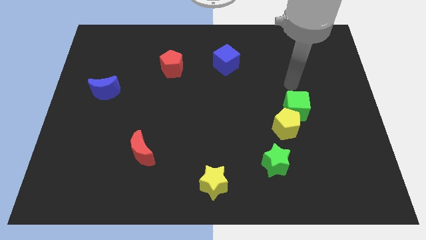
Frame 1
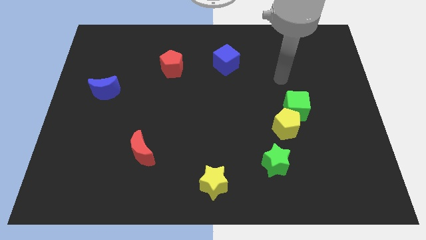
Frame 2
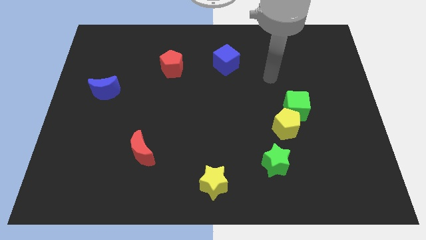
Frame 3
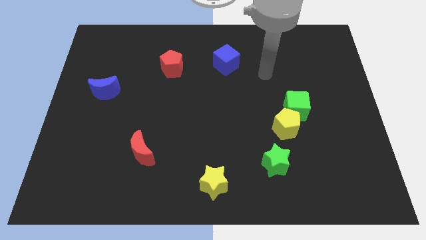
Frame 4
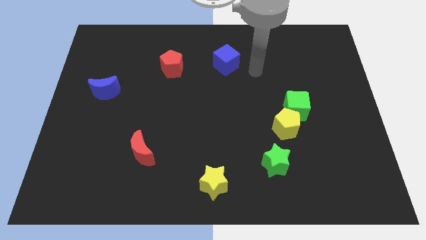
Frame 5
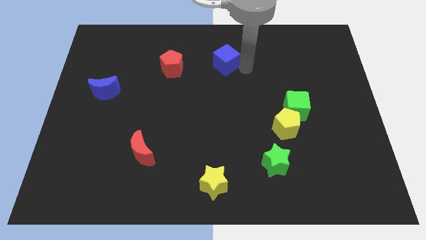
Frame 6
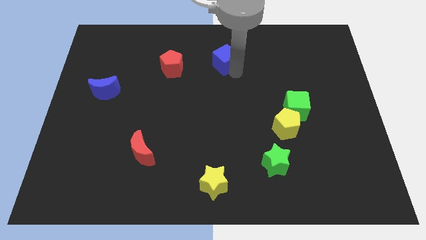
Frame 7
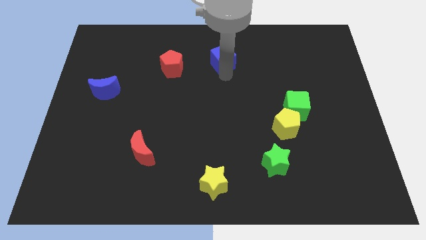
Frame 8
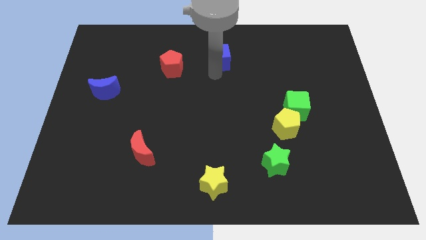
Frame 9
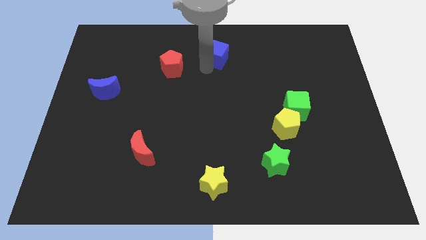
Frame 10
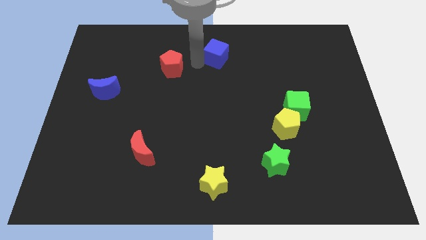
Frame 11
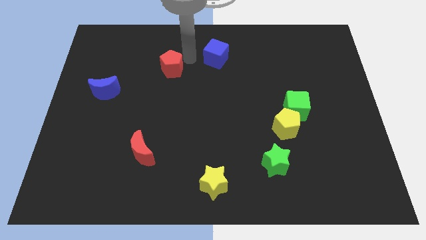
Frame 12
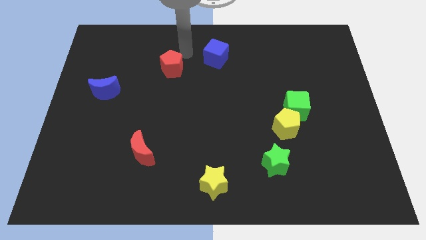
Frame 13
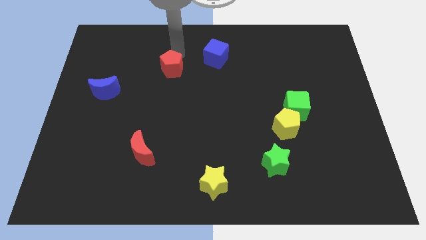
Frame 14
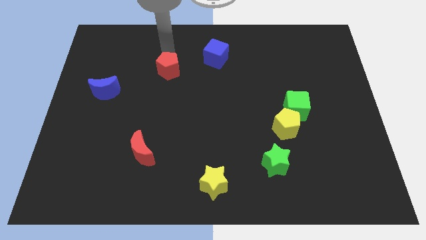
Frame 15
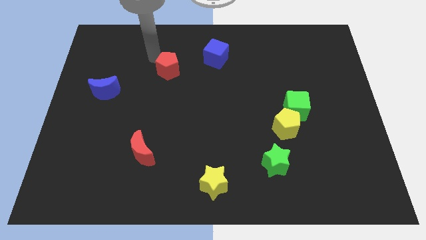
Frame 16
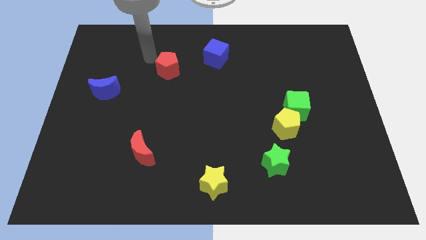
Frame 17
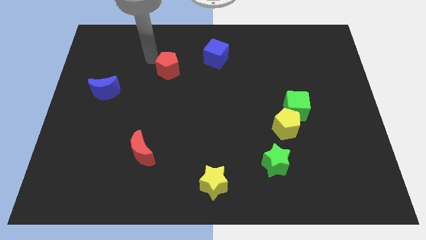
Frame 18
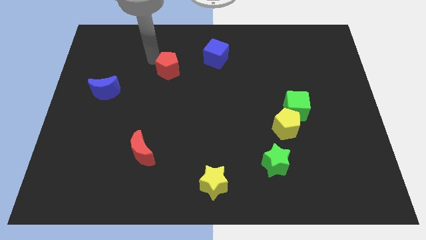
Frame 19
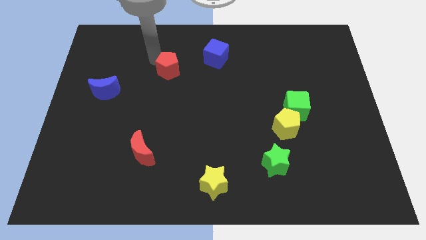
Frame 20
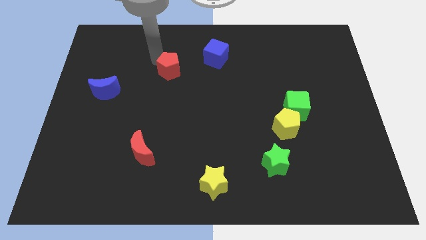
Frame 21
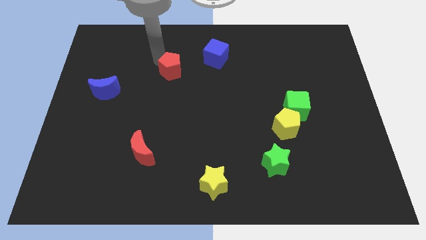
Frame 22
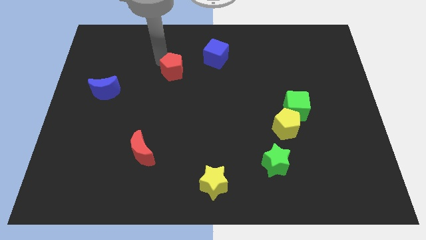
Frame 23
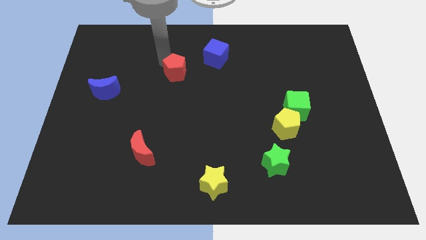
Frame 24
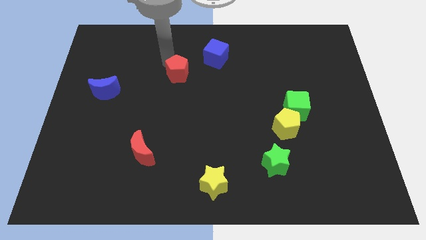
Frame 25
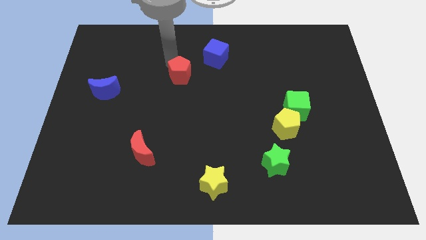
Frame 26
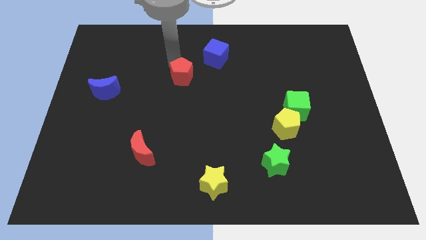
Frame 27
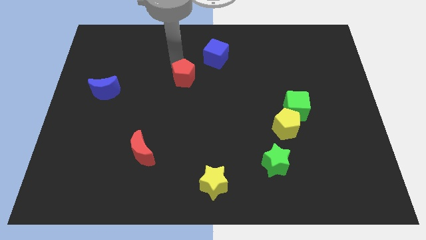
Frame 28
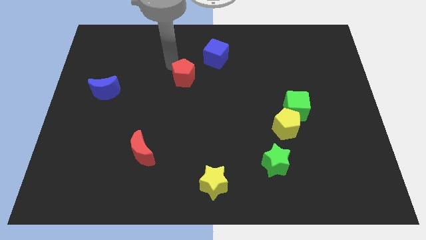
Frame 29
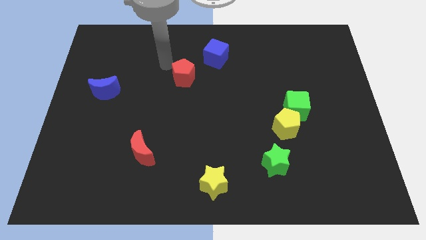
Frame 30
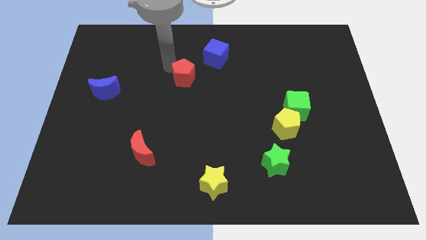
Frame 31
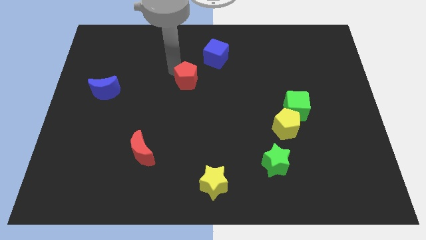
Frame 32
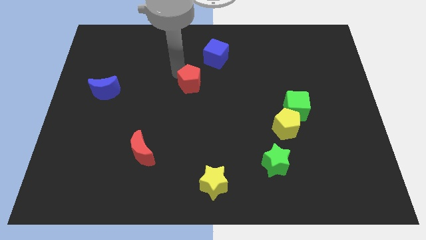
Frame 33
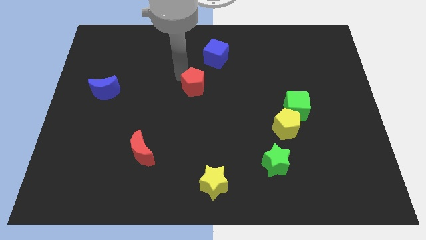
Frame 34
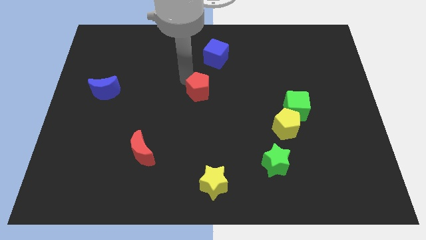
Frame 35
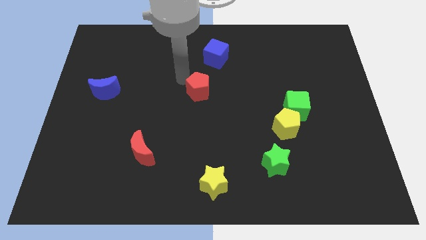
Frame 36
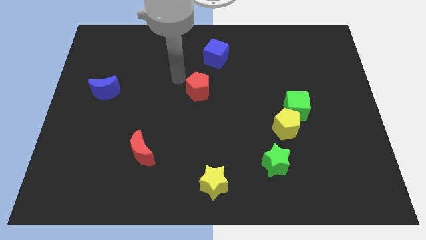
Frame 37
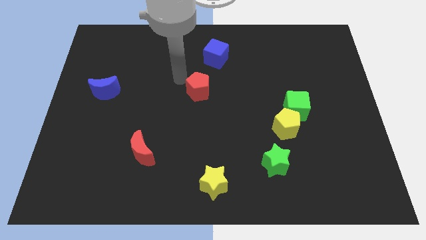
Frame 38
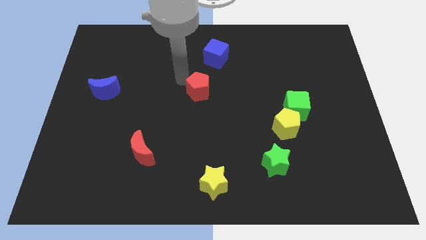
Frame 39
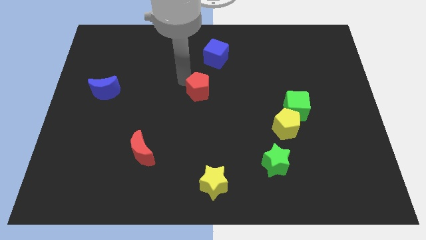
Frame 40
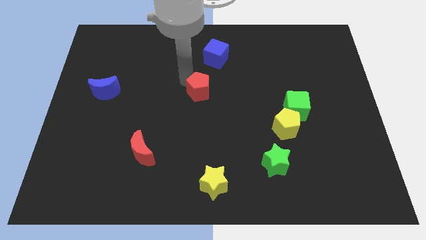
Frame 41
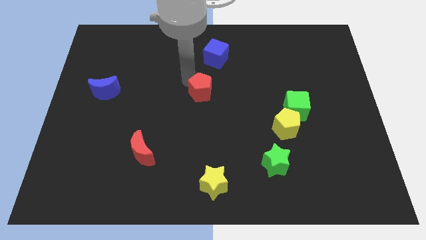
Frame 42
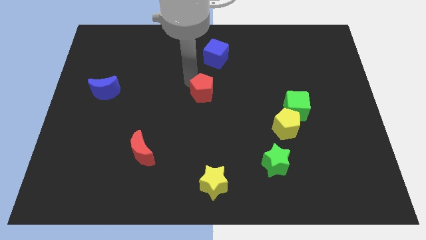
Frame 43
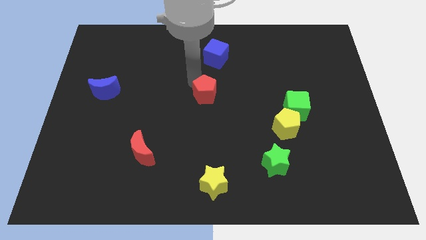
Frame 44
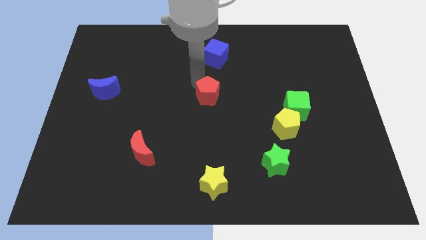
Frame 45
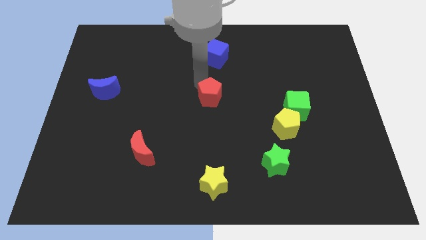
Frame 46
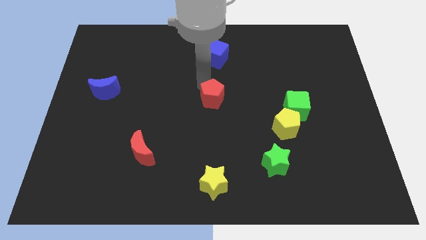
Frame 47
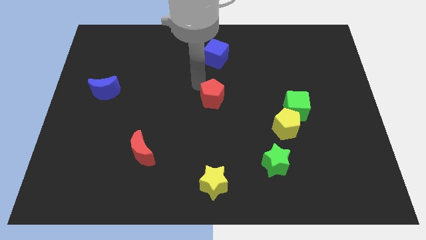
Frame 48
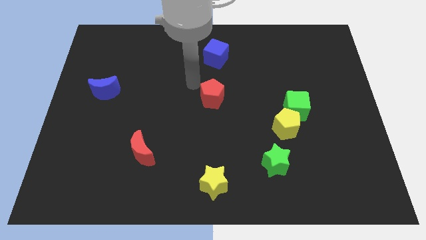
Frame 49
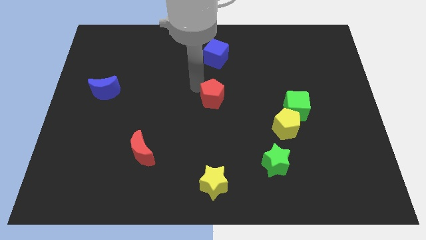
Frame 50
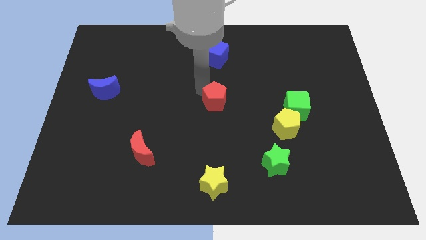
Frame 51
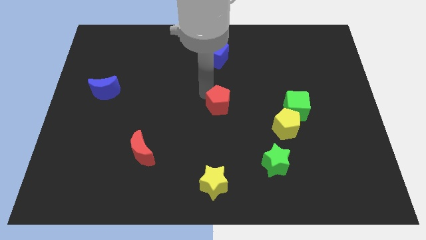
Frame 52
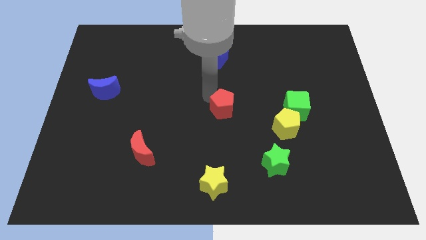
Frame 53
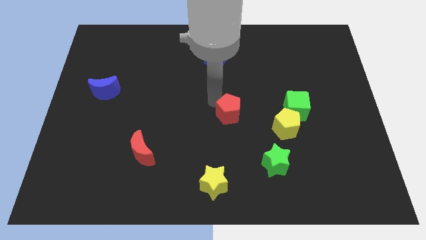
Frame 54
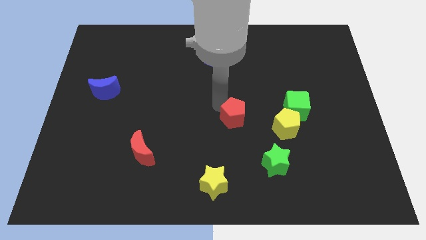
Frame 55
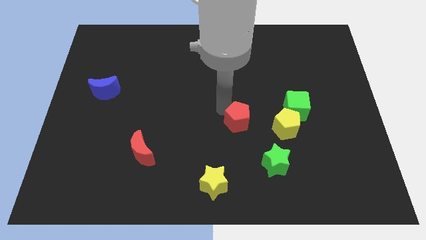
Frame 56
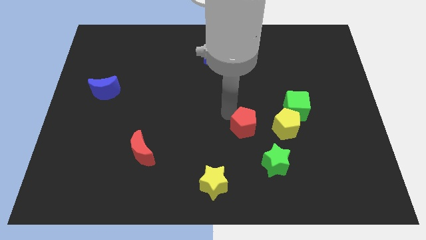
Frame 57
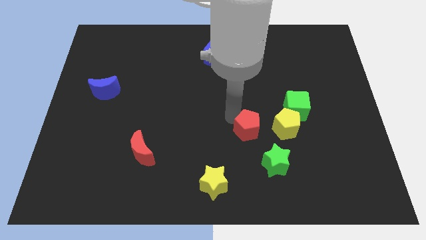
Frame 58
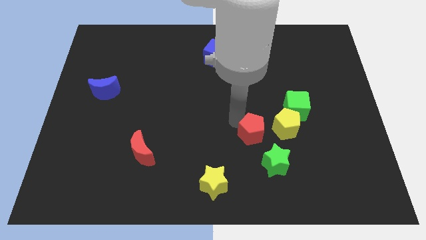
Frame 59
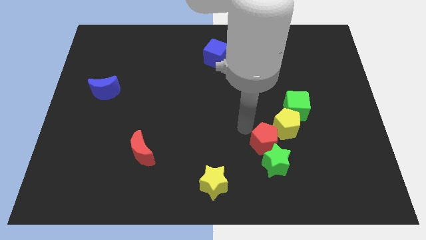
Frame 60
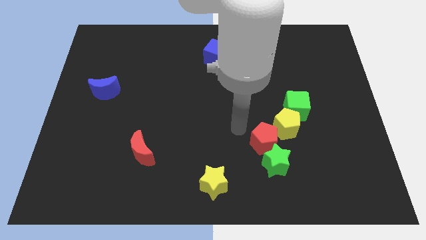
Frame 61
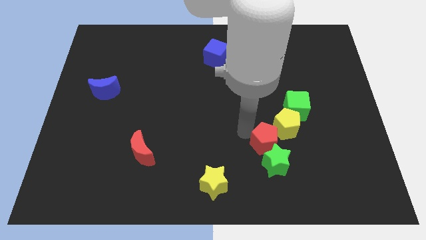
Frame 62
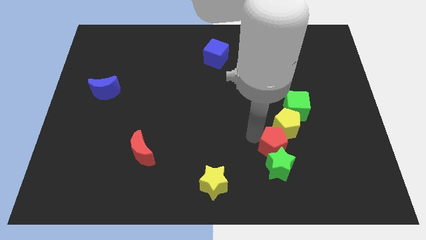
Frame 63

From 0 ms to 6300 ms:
slide the red pentagon to the top right side of the green star

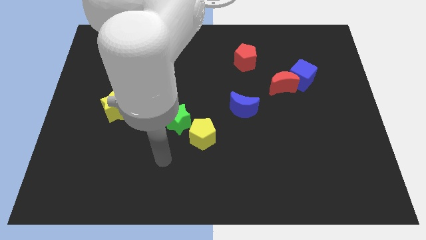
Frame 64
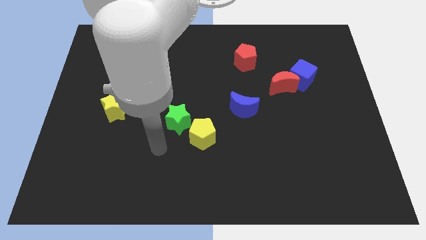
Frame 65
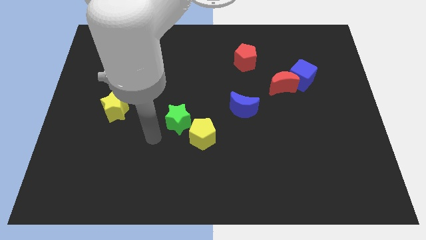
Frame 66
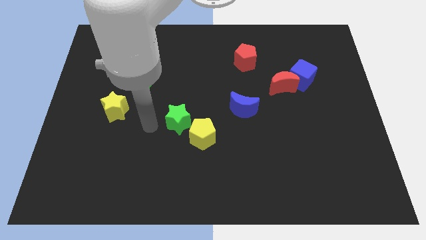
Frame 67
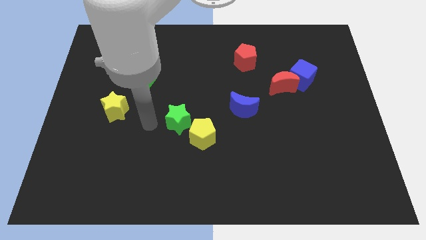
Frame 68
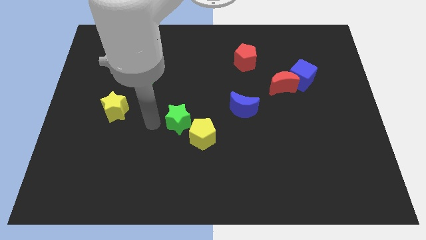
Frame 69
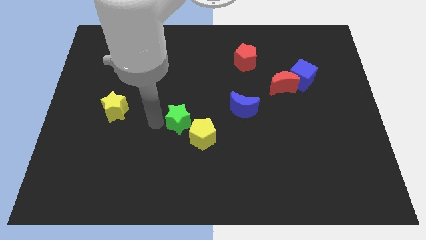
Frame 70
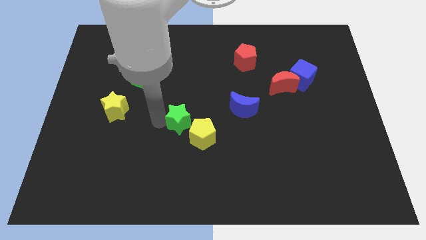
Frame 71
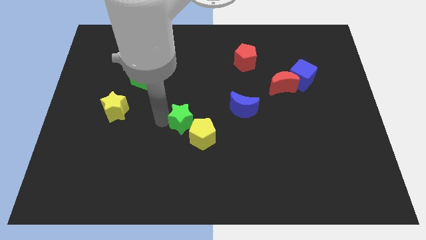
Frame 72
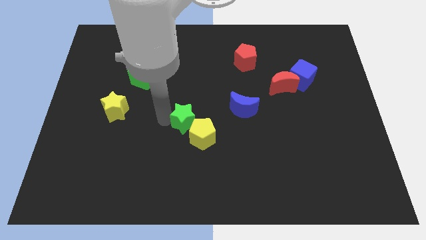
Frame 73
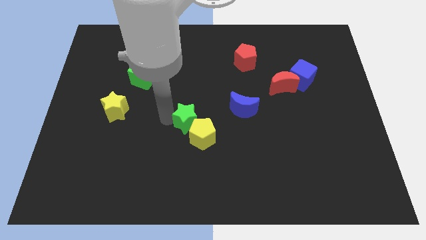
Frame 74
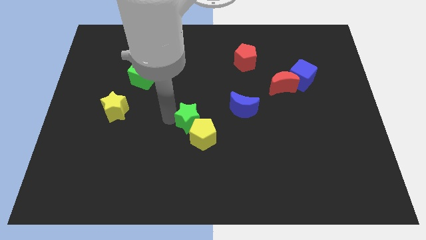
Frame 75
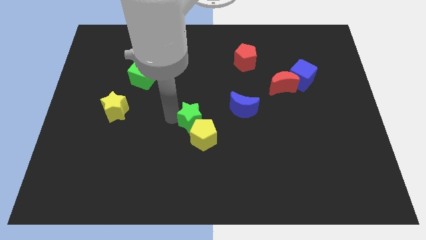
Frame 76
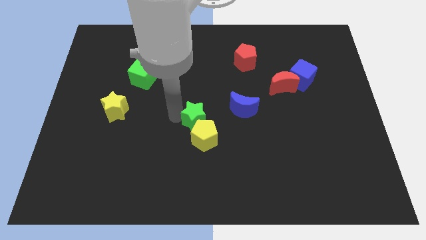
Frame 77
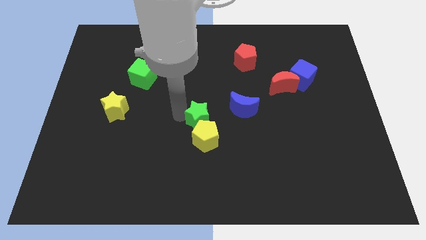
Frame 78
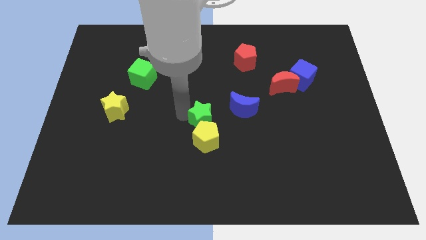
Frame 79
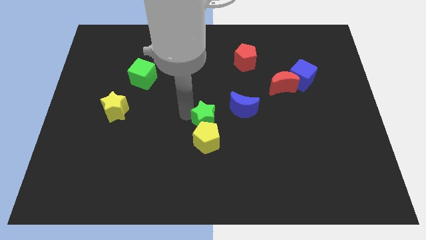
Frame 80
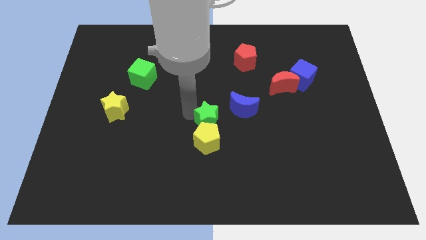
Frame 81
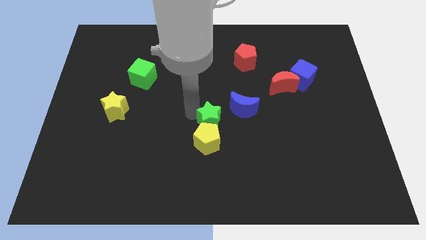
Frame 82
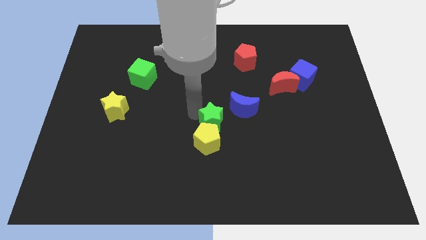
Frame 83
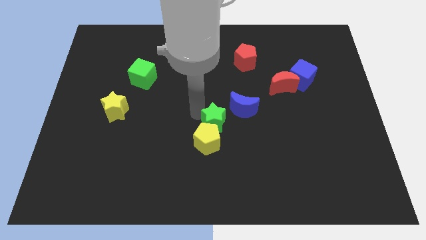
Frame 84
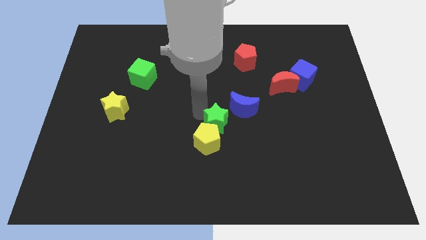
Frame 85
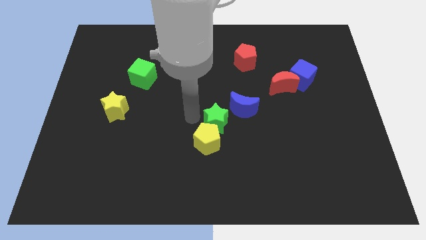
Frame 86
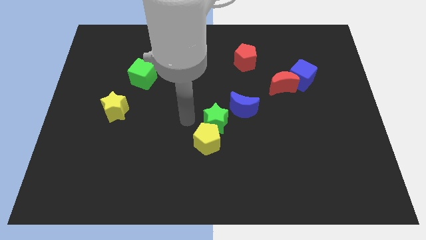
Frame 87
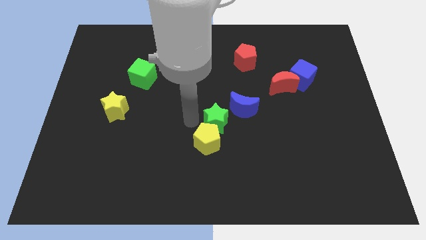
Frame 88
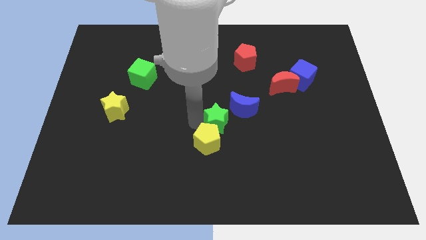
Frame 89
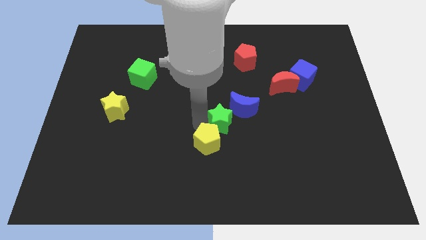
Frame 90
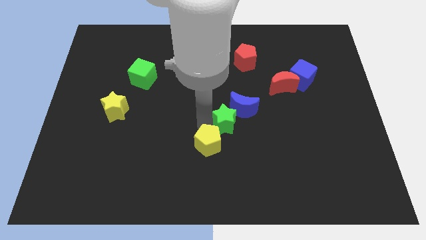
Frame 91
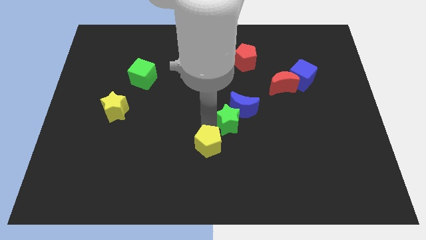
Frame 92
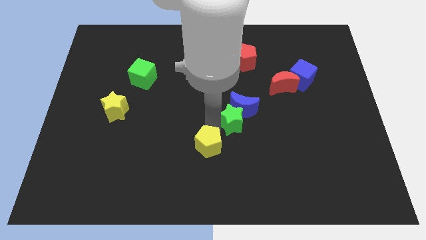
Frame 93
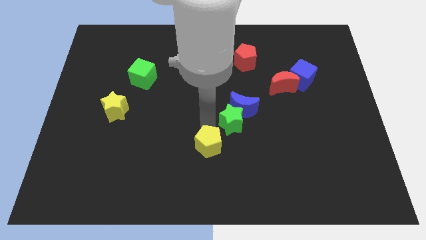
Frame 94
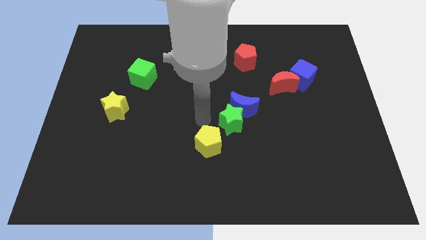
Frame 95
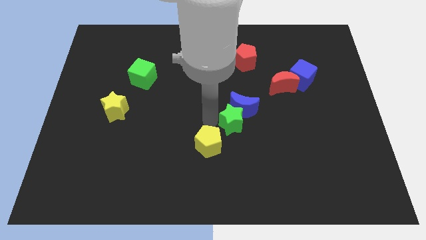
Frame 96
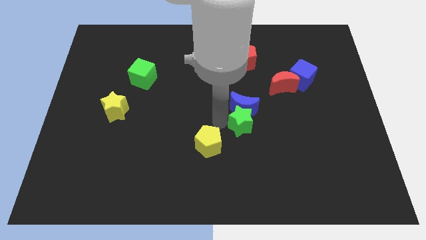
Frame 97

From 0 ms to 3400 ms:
slide the green star diagonally down and to the right of the blue moon
